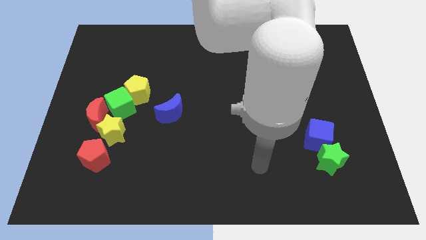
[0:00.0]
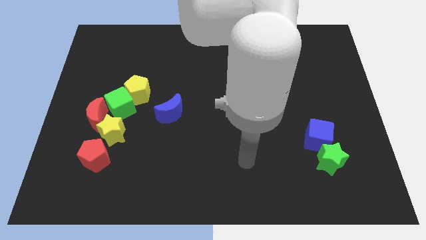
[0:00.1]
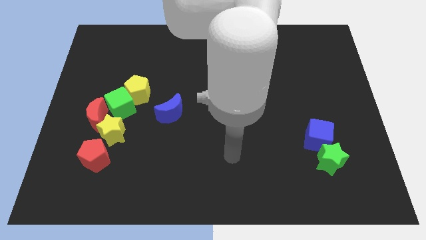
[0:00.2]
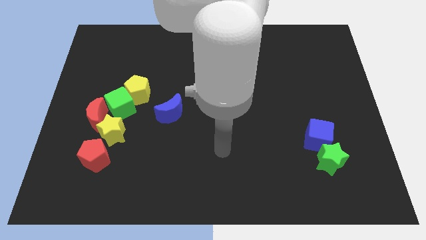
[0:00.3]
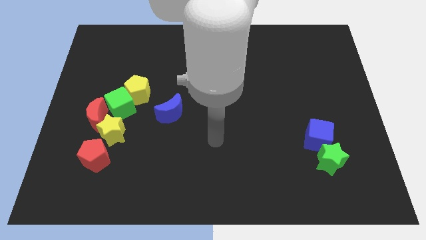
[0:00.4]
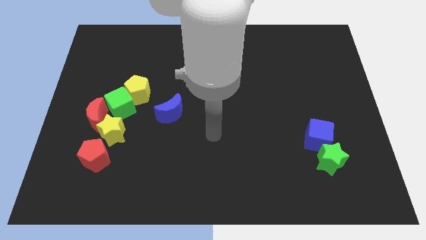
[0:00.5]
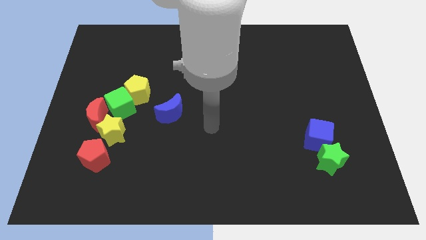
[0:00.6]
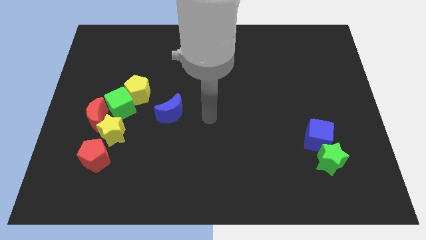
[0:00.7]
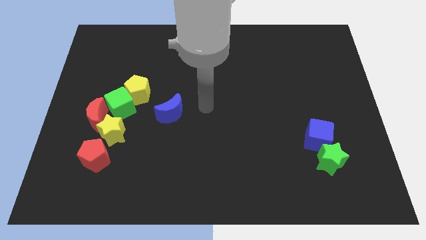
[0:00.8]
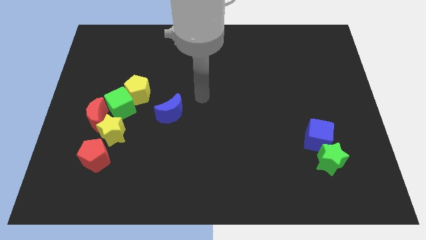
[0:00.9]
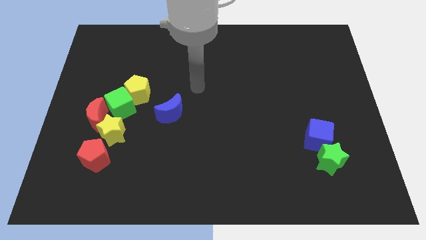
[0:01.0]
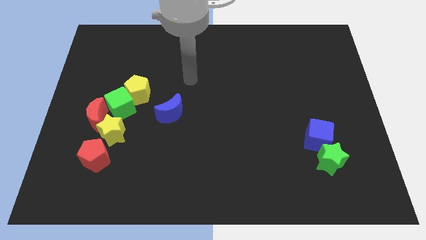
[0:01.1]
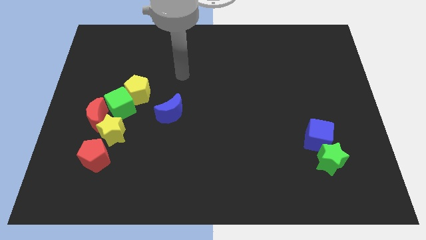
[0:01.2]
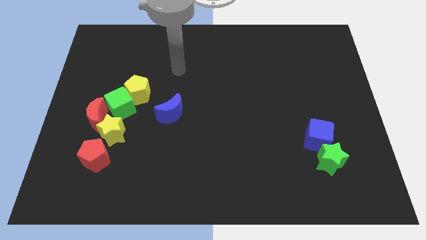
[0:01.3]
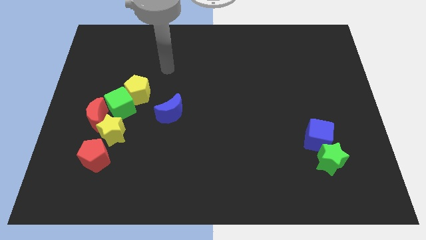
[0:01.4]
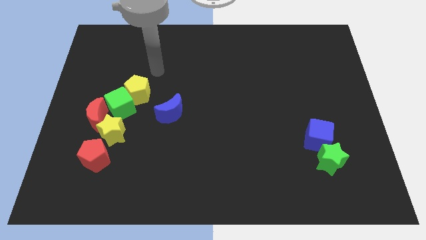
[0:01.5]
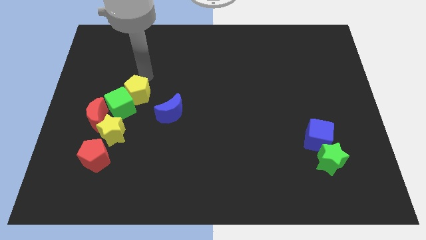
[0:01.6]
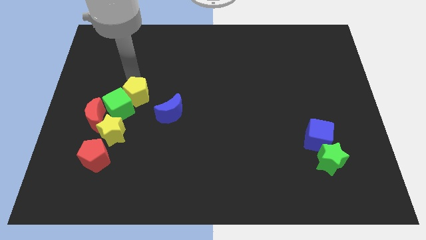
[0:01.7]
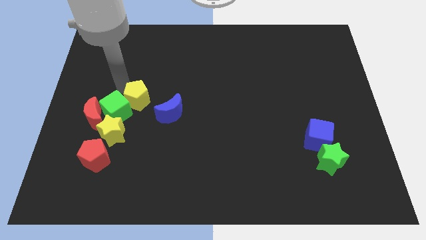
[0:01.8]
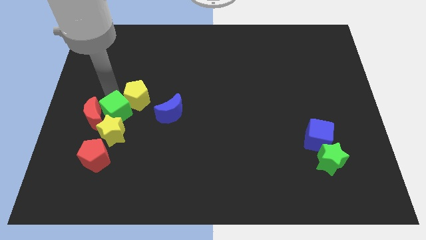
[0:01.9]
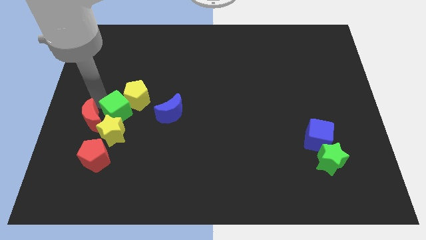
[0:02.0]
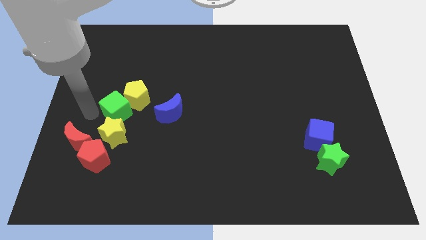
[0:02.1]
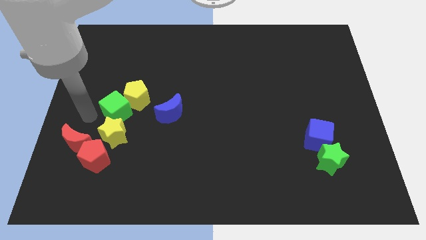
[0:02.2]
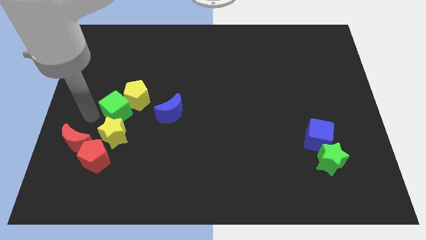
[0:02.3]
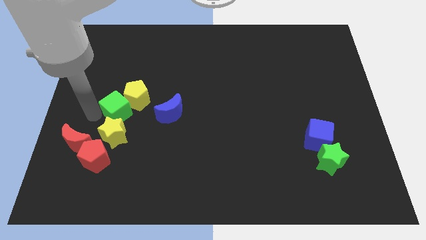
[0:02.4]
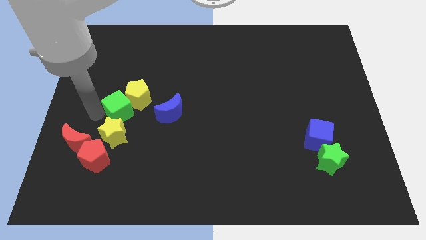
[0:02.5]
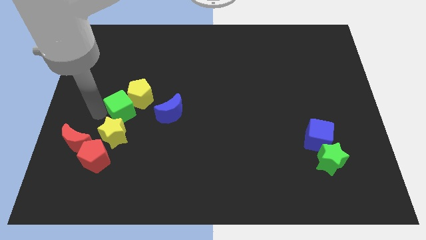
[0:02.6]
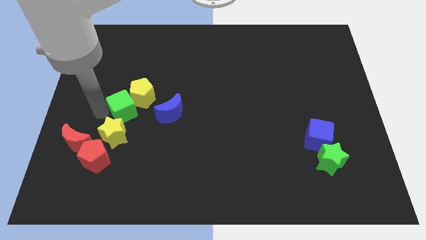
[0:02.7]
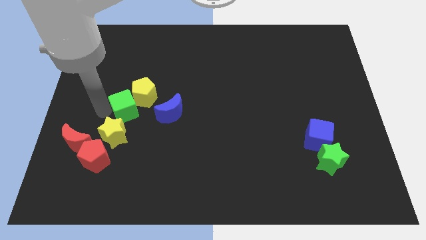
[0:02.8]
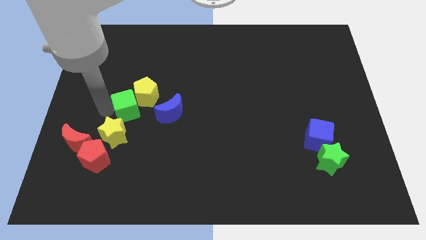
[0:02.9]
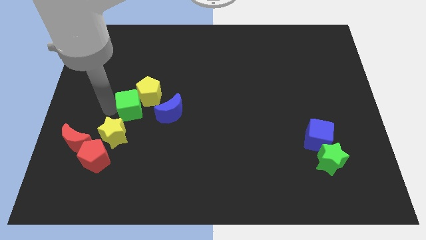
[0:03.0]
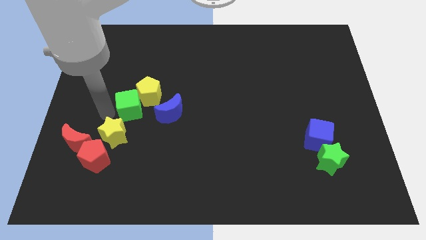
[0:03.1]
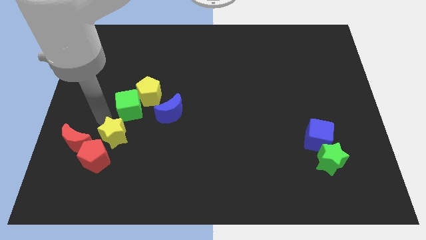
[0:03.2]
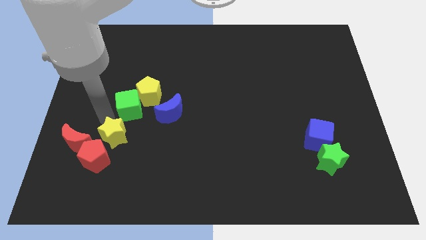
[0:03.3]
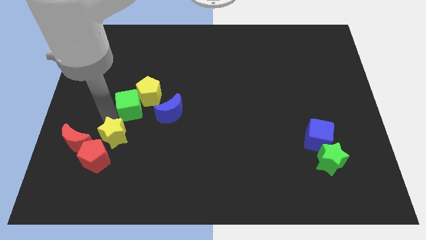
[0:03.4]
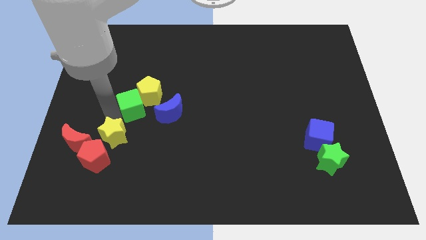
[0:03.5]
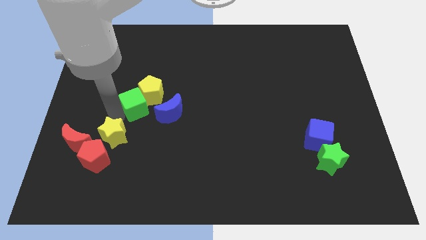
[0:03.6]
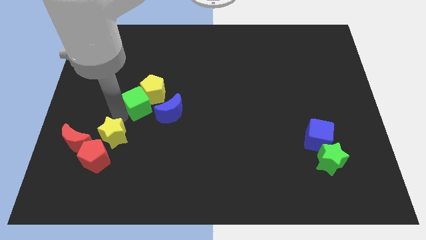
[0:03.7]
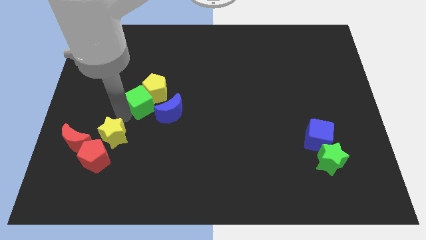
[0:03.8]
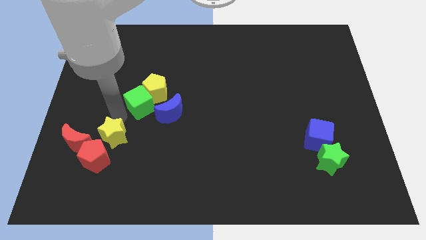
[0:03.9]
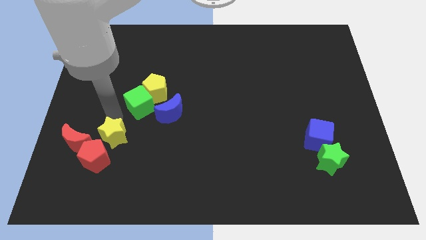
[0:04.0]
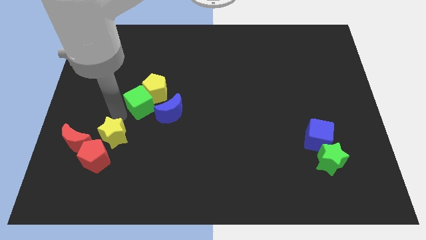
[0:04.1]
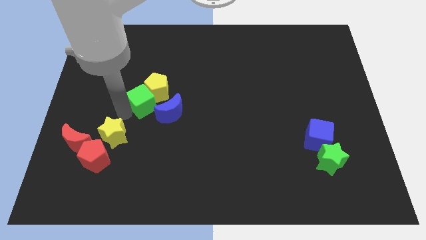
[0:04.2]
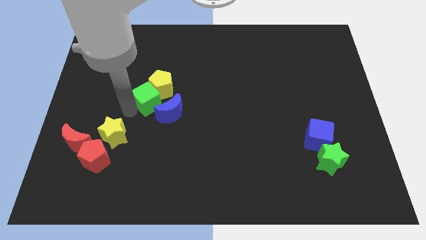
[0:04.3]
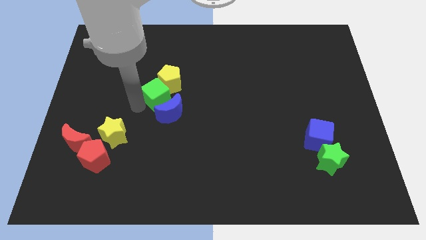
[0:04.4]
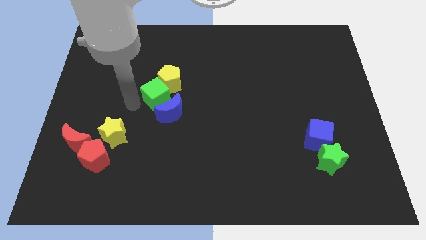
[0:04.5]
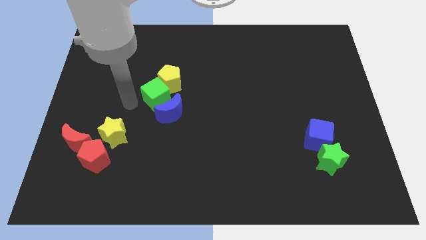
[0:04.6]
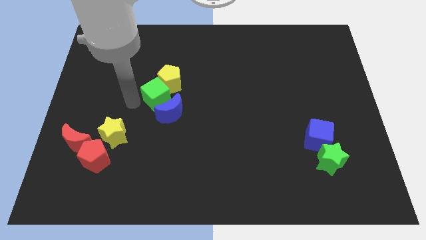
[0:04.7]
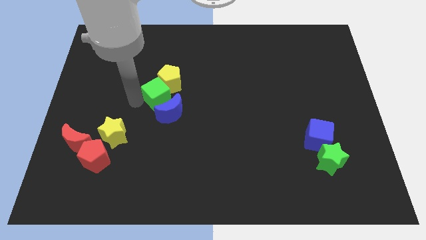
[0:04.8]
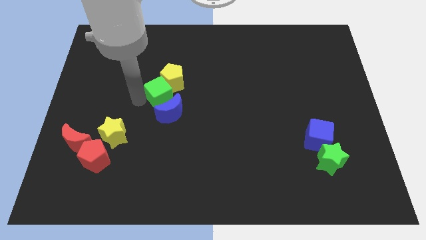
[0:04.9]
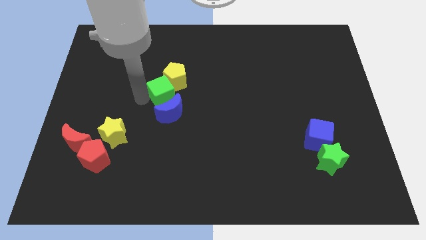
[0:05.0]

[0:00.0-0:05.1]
put the green cube to the center of the board

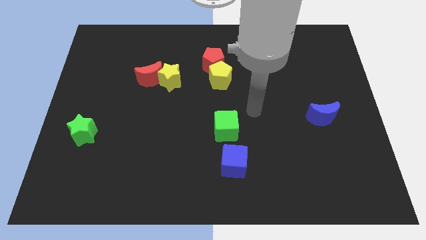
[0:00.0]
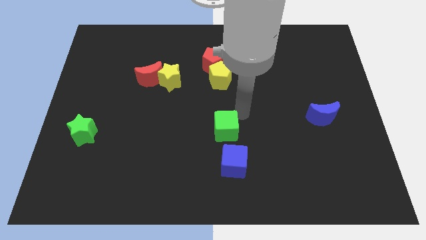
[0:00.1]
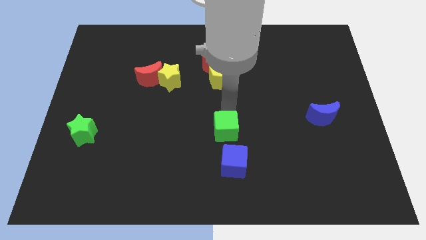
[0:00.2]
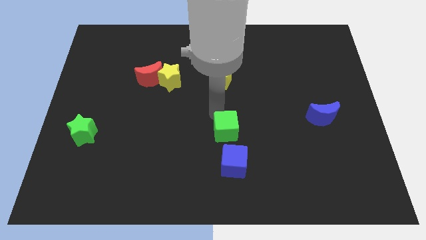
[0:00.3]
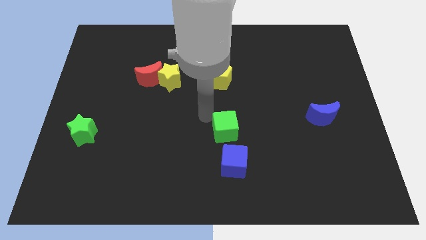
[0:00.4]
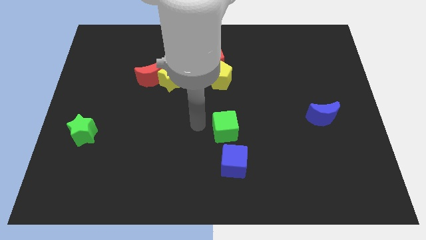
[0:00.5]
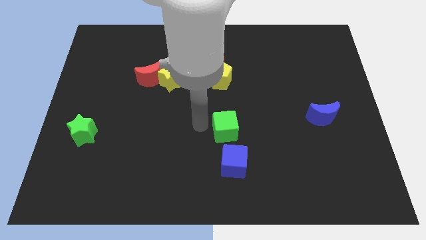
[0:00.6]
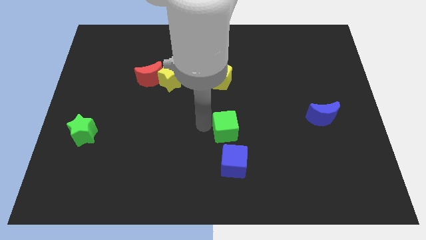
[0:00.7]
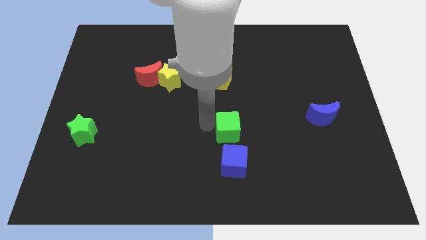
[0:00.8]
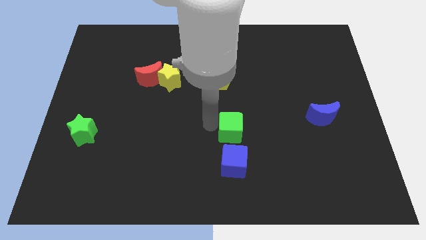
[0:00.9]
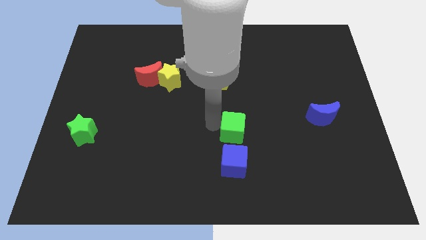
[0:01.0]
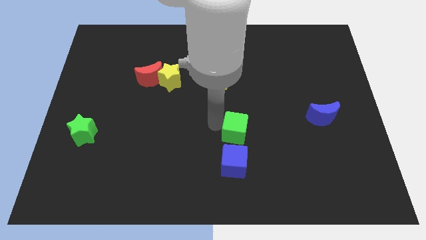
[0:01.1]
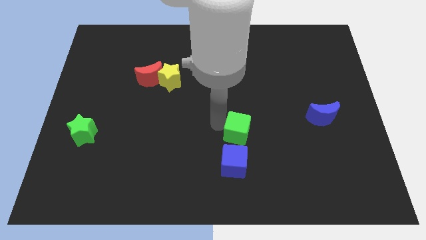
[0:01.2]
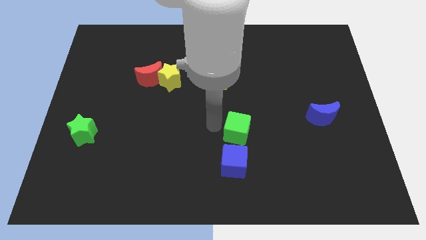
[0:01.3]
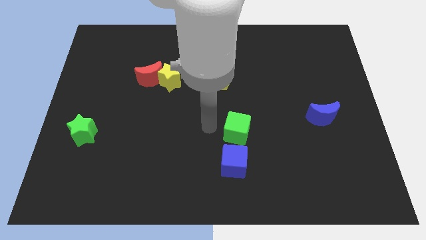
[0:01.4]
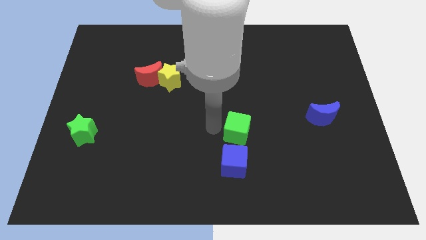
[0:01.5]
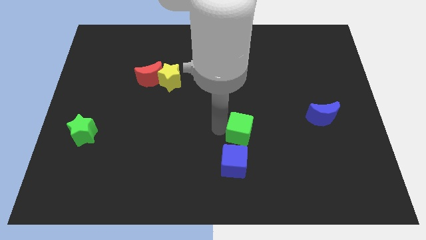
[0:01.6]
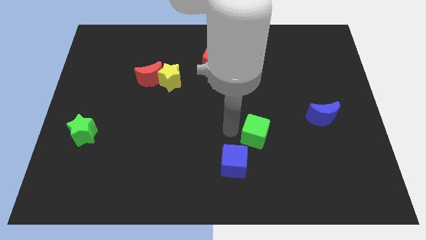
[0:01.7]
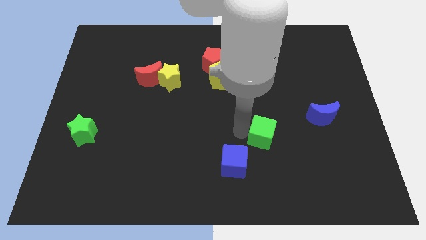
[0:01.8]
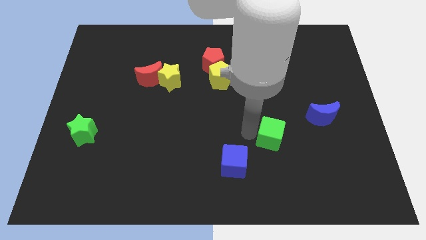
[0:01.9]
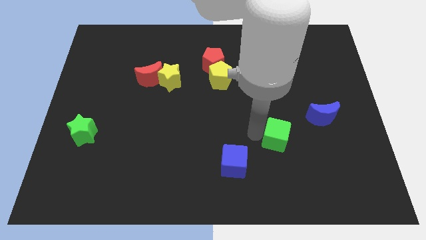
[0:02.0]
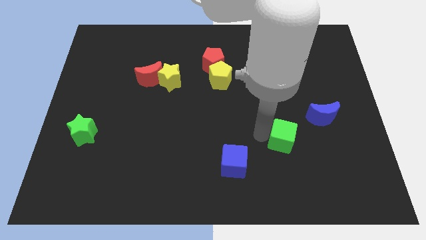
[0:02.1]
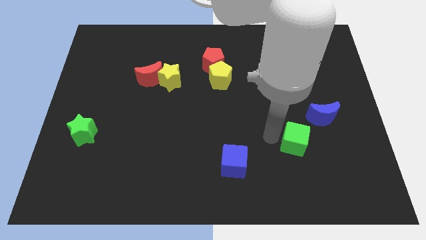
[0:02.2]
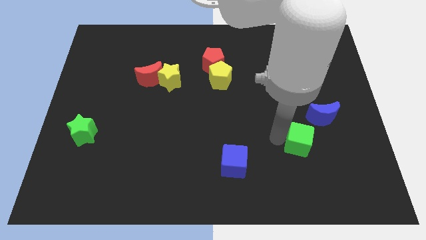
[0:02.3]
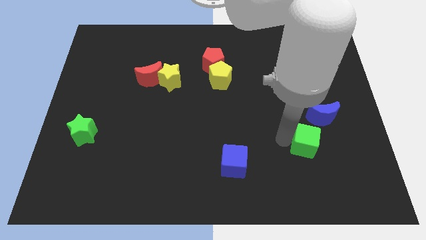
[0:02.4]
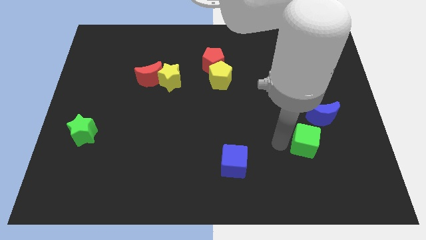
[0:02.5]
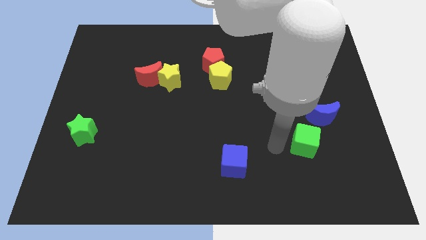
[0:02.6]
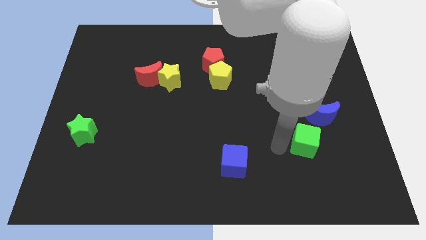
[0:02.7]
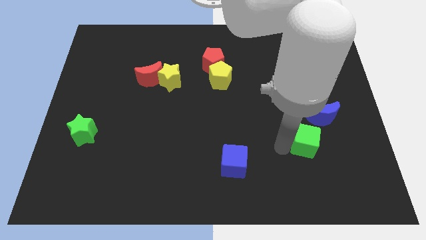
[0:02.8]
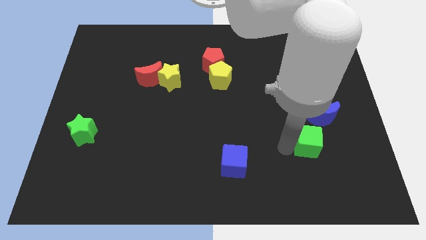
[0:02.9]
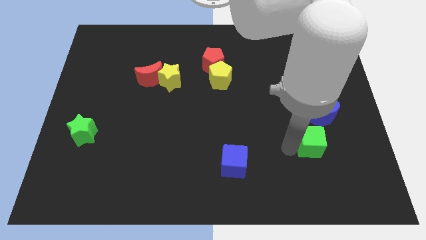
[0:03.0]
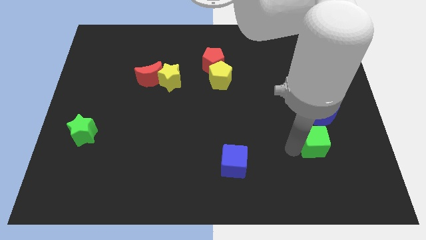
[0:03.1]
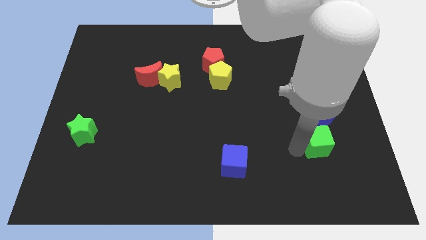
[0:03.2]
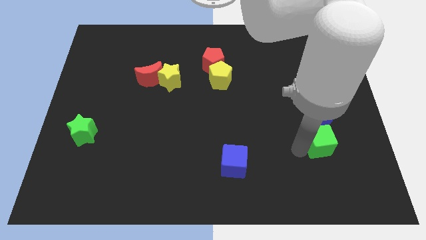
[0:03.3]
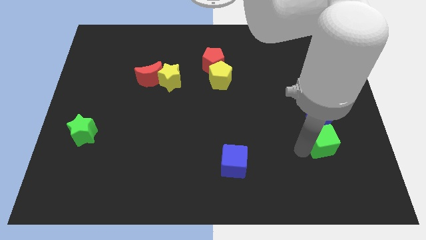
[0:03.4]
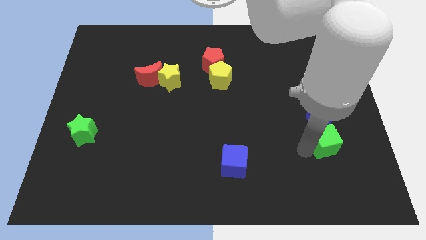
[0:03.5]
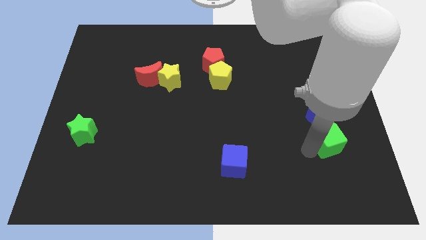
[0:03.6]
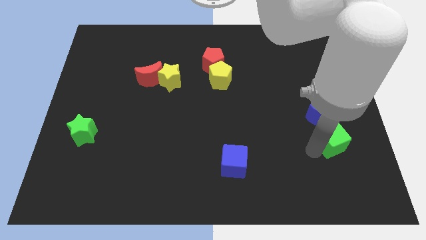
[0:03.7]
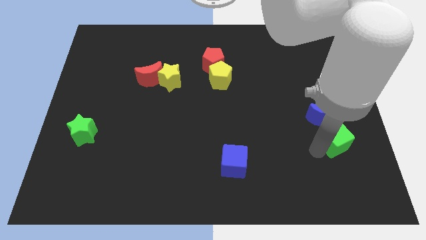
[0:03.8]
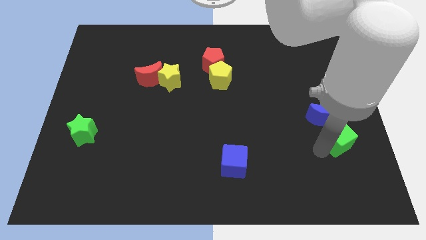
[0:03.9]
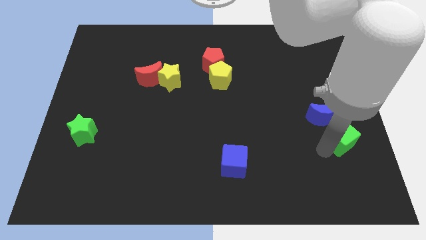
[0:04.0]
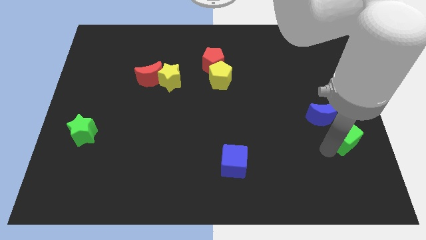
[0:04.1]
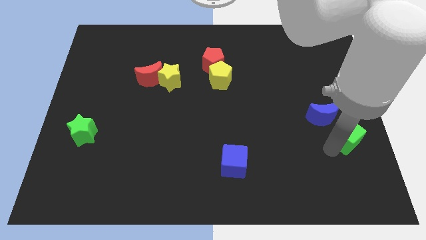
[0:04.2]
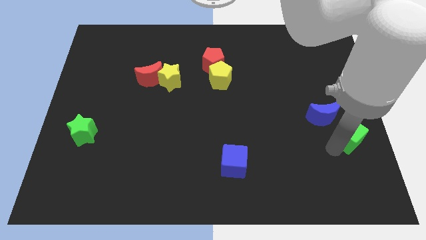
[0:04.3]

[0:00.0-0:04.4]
put the green cube to the right side of the board
